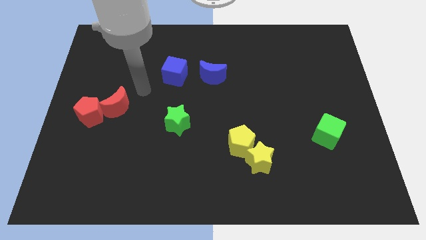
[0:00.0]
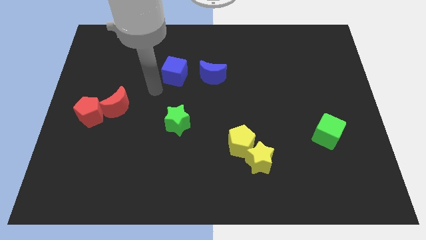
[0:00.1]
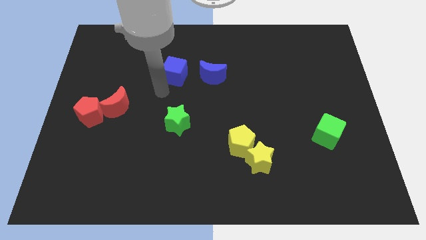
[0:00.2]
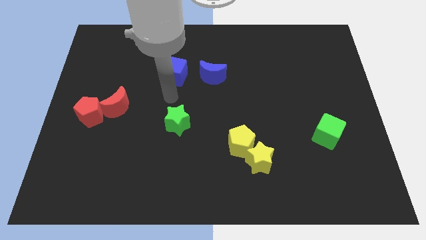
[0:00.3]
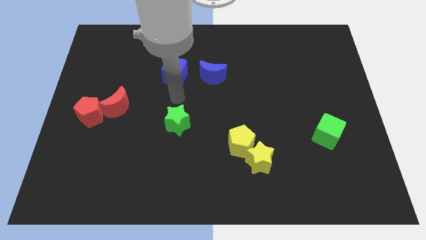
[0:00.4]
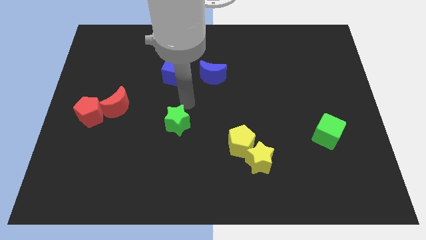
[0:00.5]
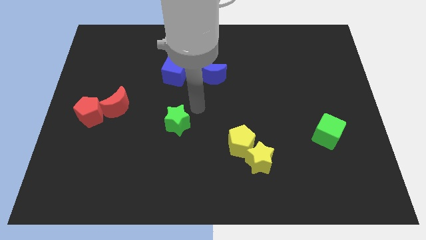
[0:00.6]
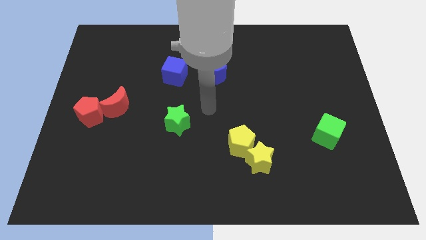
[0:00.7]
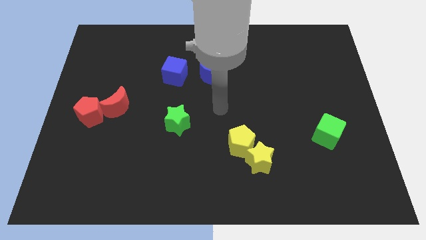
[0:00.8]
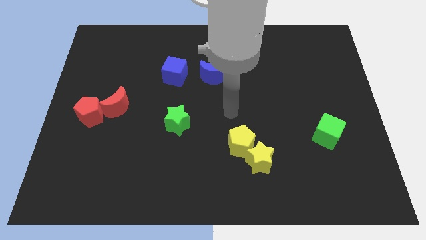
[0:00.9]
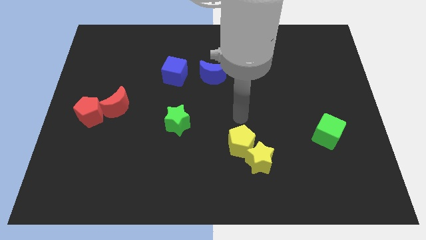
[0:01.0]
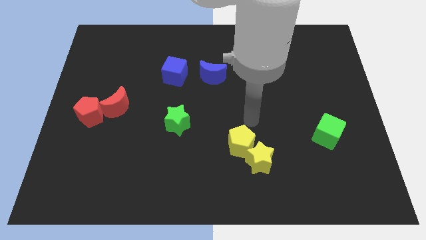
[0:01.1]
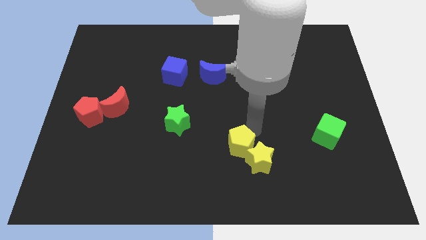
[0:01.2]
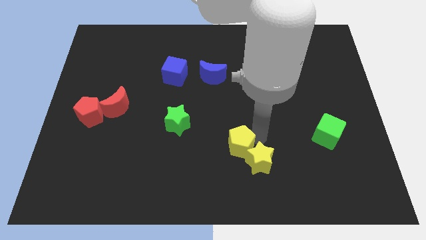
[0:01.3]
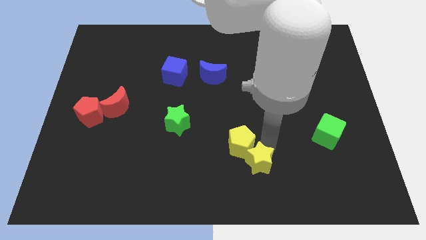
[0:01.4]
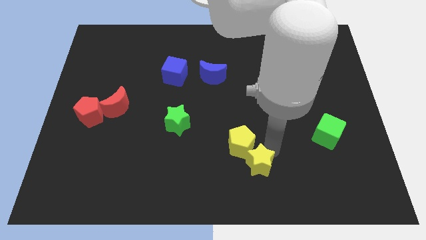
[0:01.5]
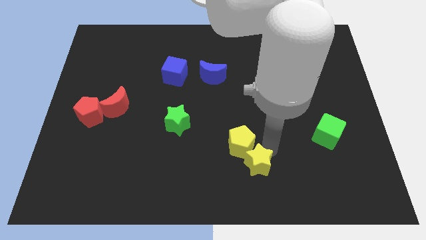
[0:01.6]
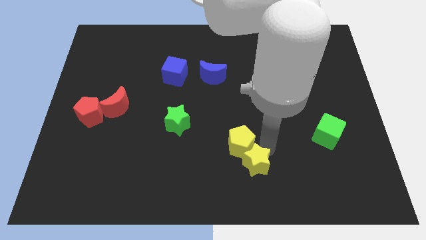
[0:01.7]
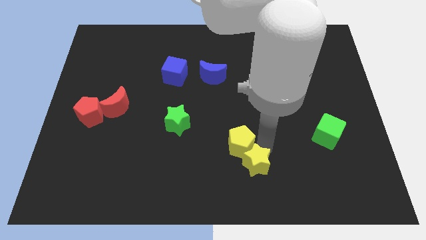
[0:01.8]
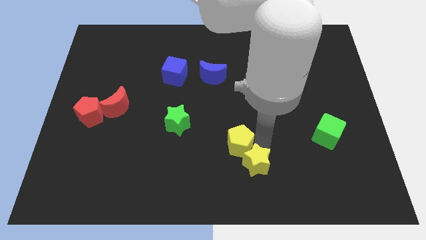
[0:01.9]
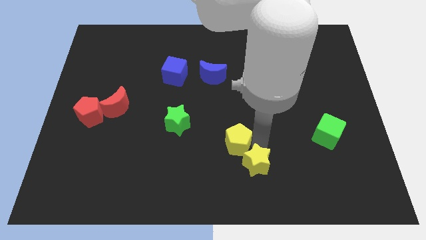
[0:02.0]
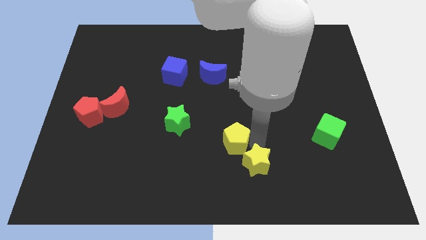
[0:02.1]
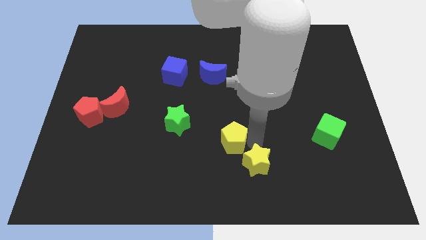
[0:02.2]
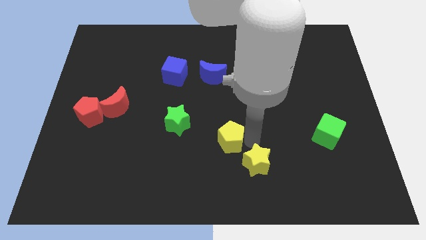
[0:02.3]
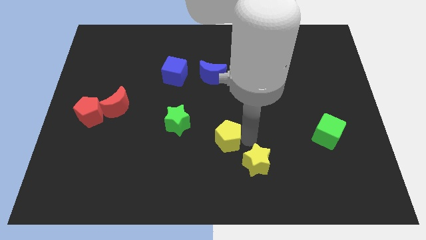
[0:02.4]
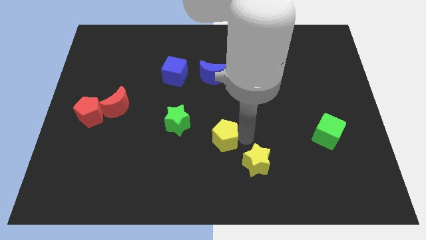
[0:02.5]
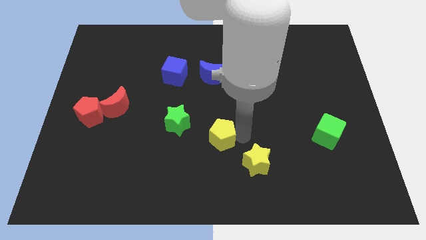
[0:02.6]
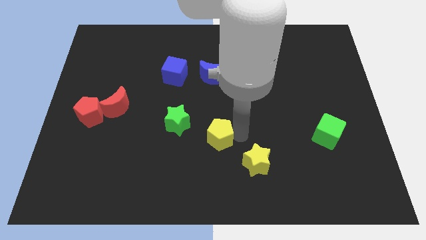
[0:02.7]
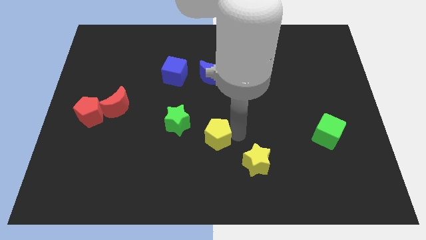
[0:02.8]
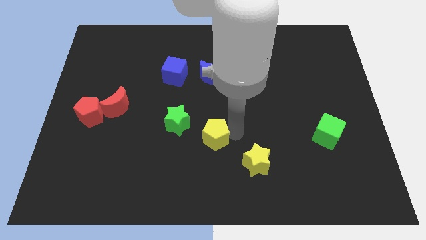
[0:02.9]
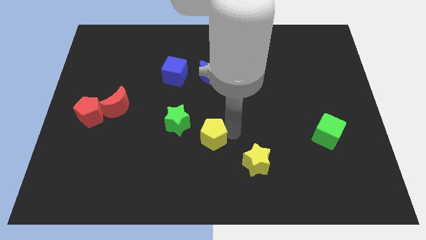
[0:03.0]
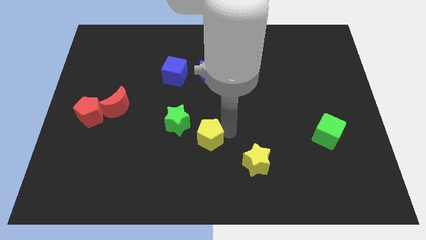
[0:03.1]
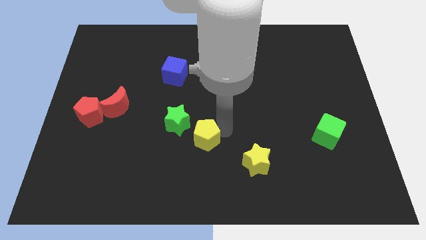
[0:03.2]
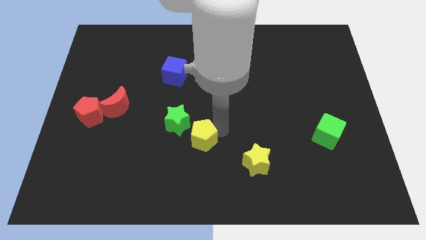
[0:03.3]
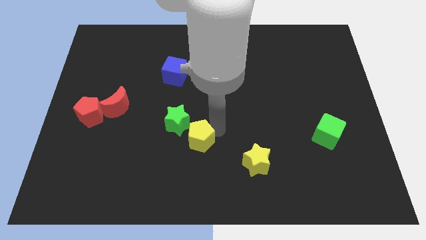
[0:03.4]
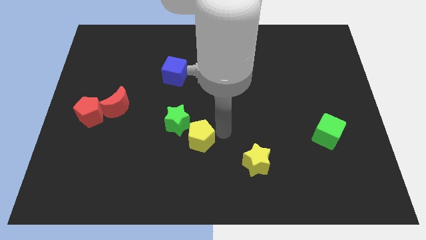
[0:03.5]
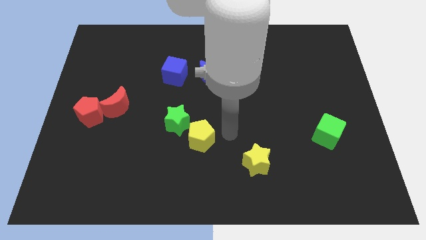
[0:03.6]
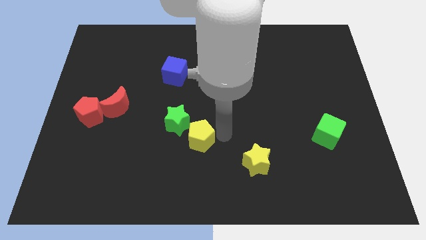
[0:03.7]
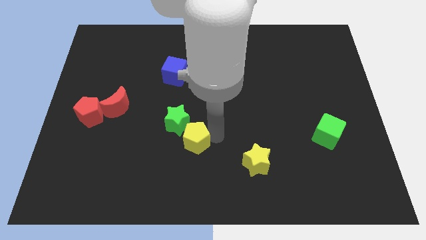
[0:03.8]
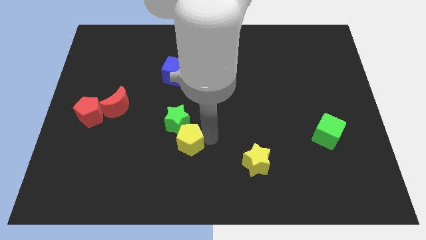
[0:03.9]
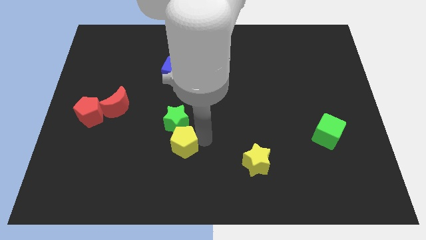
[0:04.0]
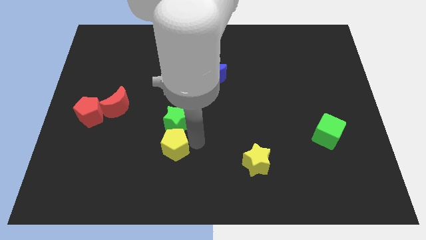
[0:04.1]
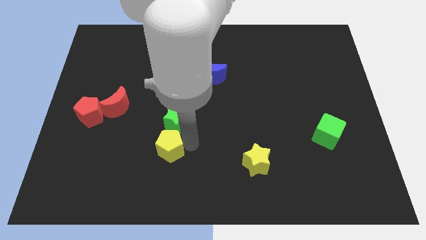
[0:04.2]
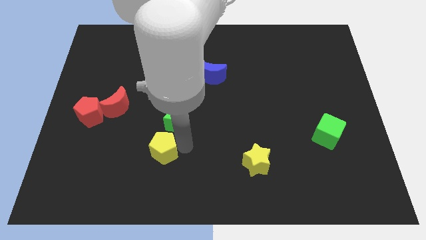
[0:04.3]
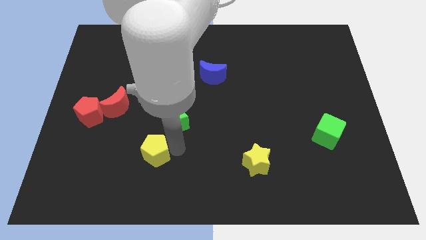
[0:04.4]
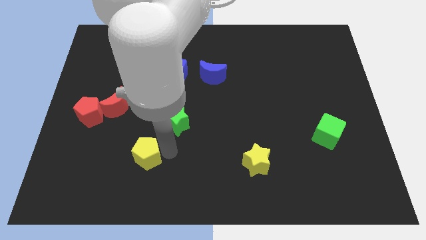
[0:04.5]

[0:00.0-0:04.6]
push the yellow pentagon to the left

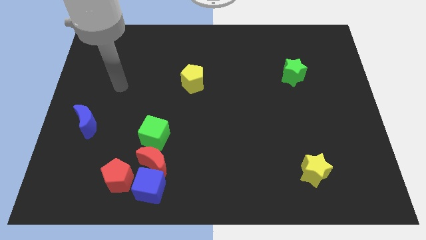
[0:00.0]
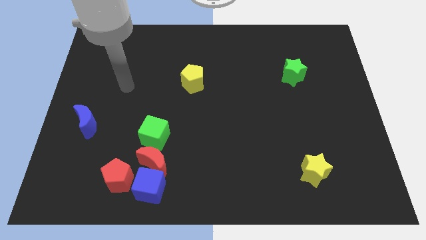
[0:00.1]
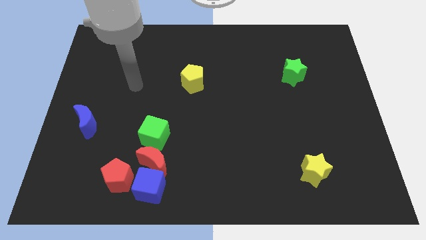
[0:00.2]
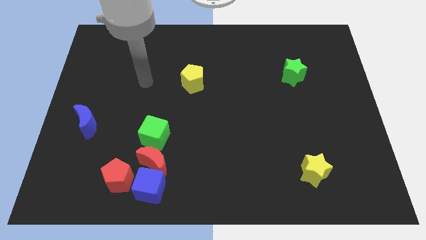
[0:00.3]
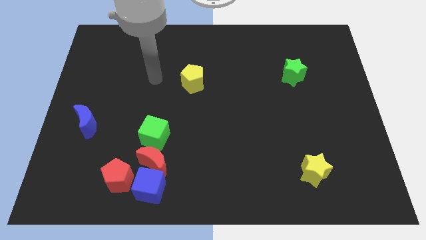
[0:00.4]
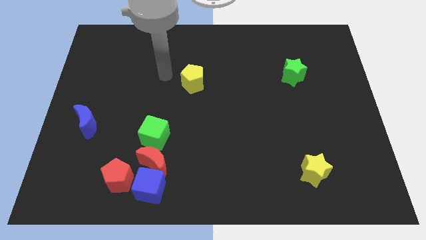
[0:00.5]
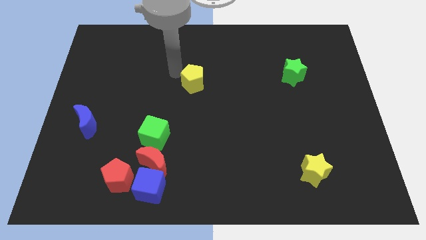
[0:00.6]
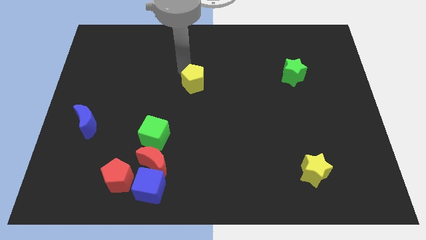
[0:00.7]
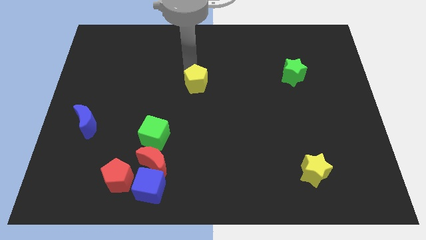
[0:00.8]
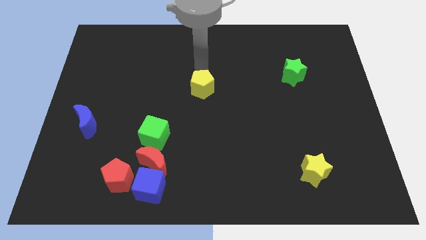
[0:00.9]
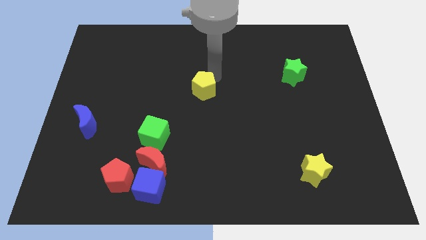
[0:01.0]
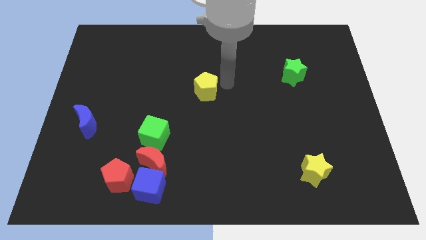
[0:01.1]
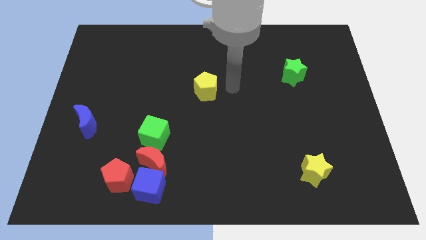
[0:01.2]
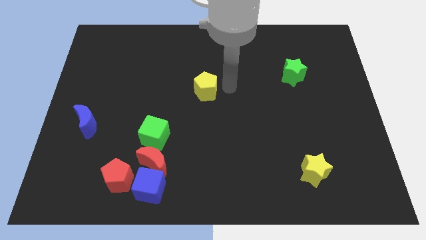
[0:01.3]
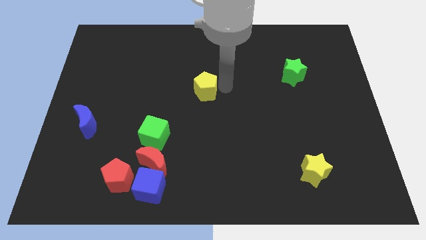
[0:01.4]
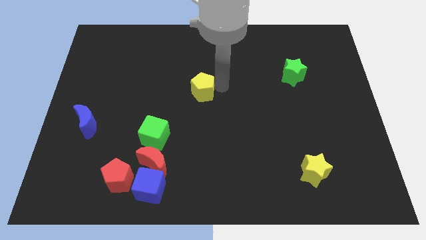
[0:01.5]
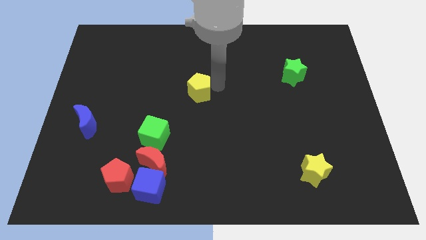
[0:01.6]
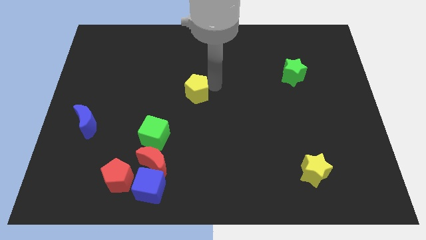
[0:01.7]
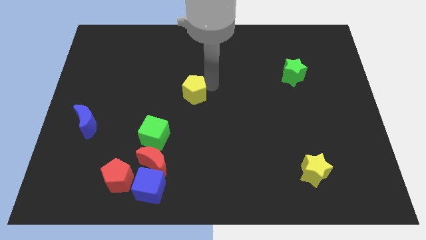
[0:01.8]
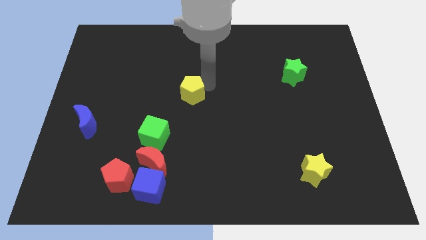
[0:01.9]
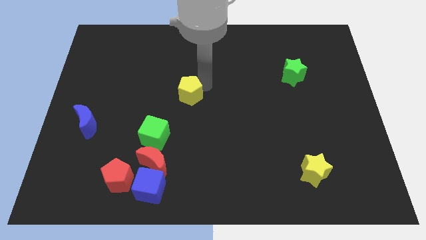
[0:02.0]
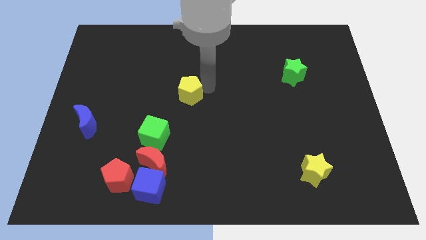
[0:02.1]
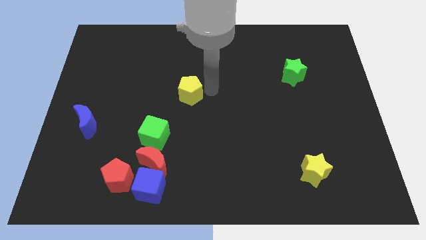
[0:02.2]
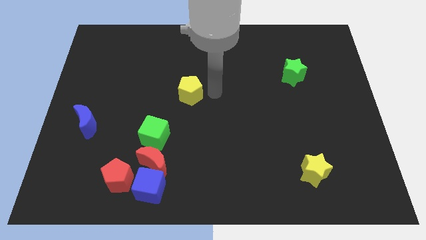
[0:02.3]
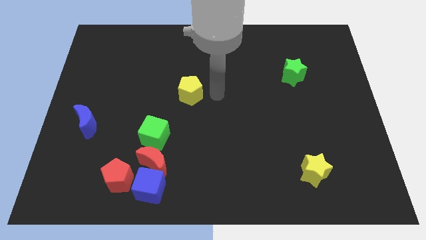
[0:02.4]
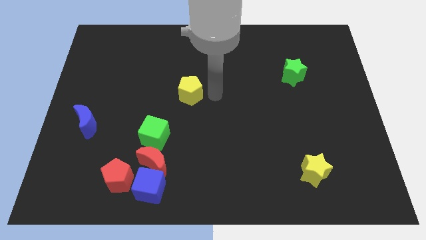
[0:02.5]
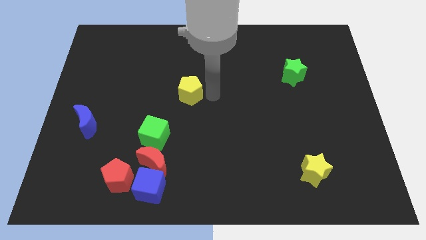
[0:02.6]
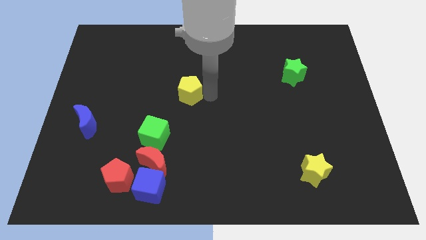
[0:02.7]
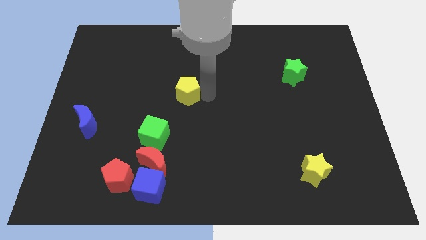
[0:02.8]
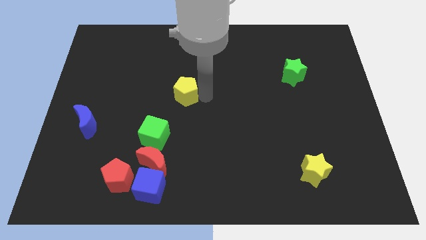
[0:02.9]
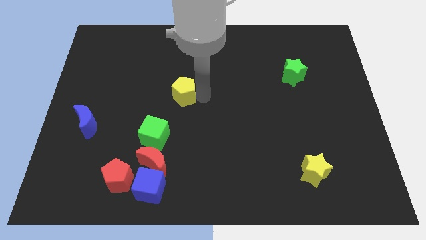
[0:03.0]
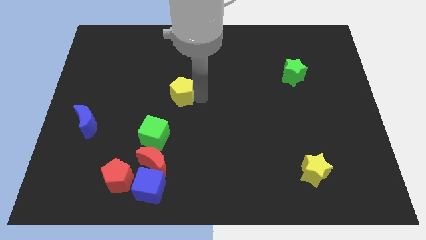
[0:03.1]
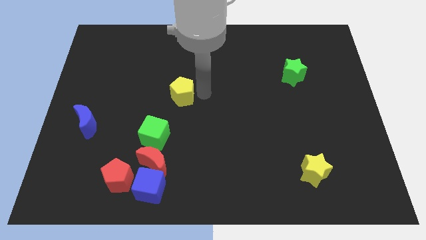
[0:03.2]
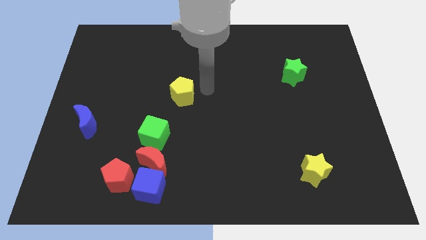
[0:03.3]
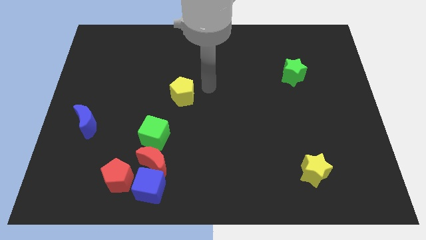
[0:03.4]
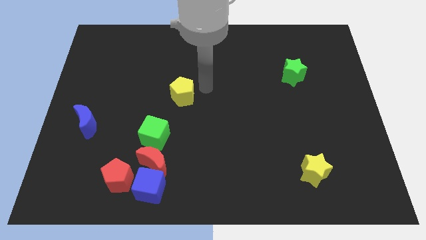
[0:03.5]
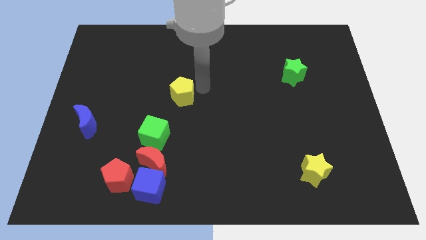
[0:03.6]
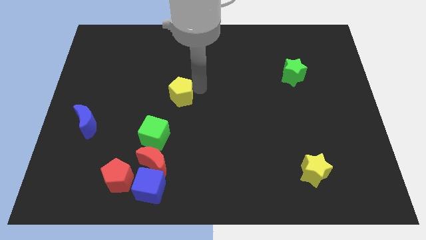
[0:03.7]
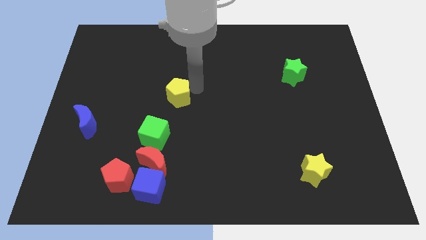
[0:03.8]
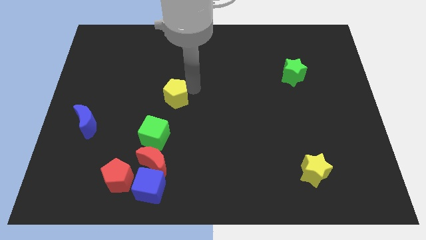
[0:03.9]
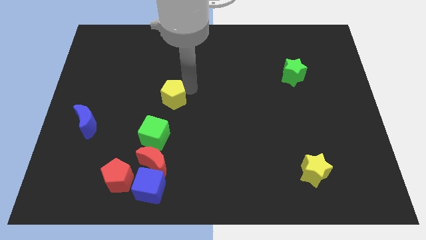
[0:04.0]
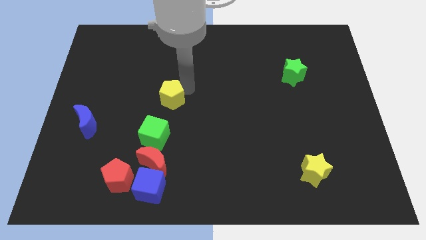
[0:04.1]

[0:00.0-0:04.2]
slightly move the yellow pentagon downwards and then left
